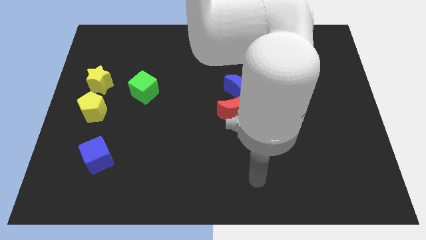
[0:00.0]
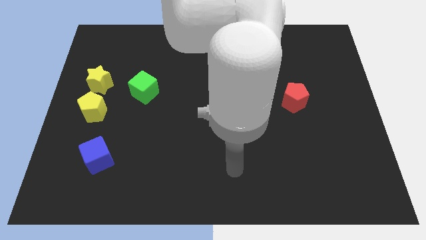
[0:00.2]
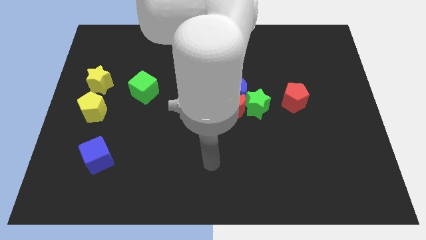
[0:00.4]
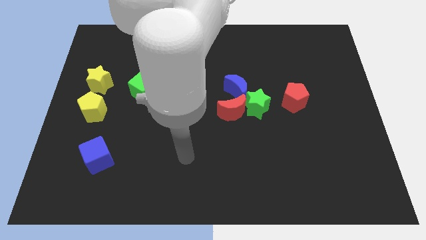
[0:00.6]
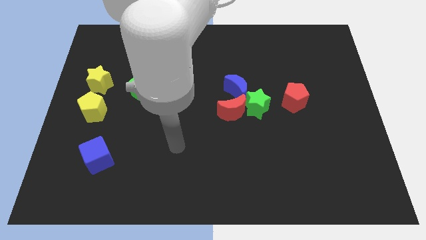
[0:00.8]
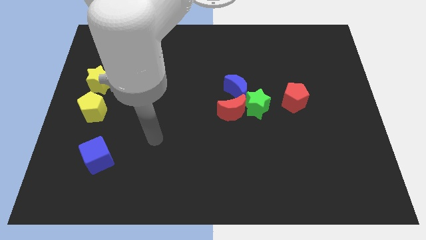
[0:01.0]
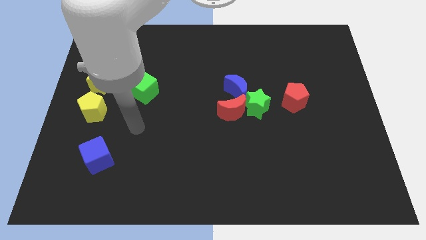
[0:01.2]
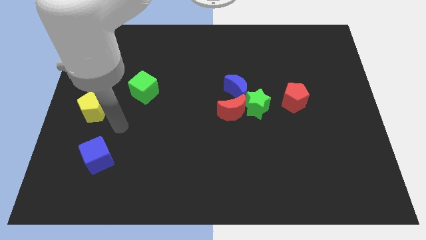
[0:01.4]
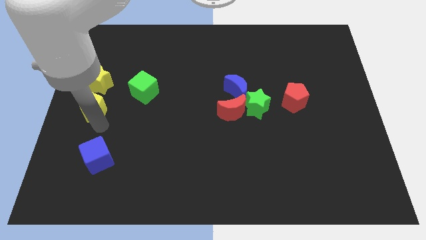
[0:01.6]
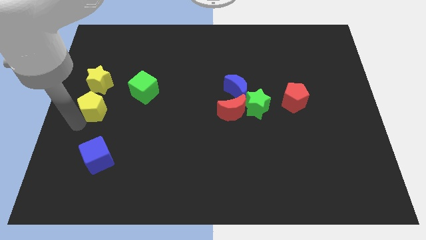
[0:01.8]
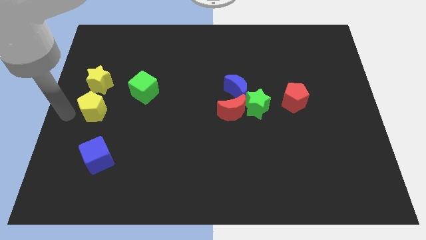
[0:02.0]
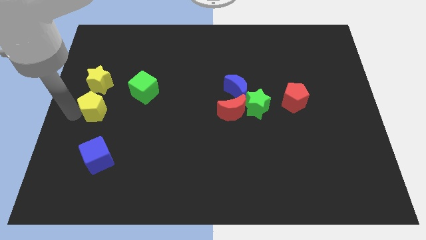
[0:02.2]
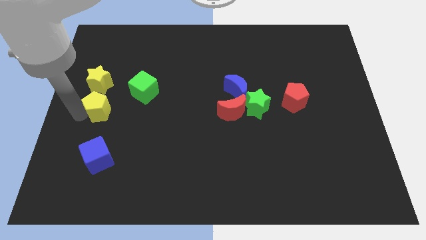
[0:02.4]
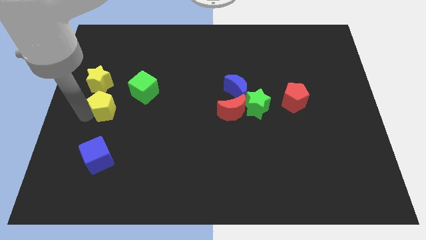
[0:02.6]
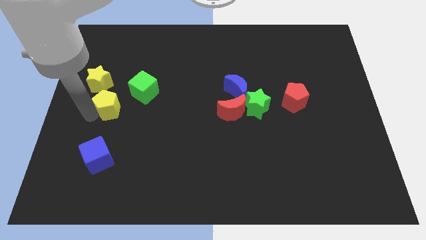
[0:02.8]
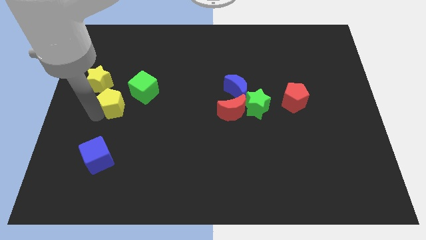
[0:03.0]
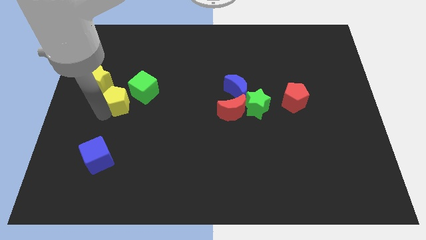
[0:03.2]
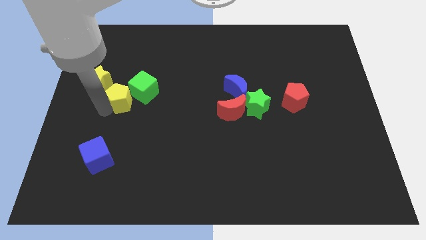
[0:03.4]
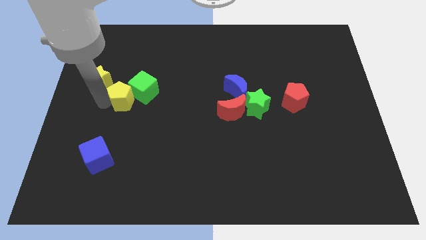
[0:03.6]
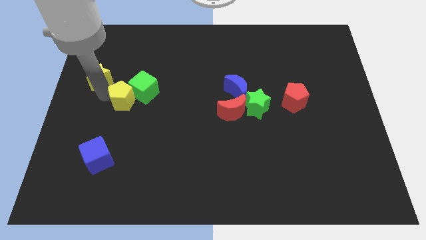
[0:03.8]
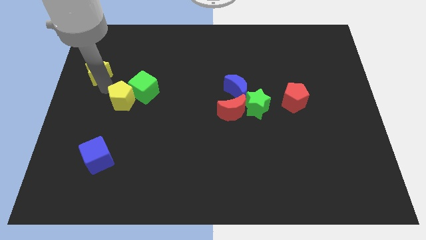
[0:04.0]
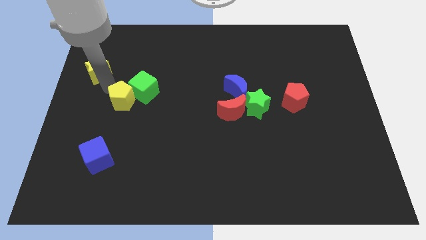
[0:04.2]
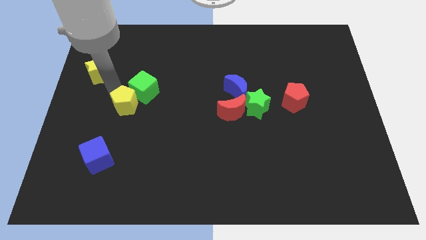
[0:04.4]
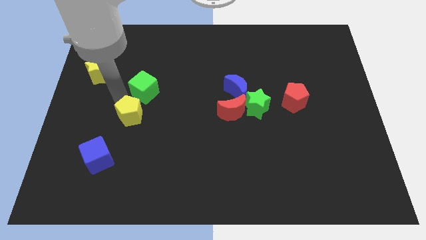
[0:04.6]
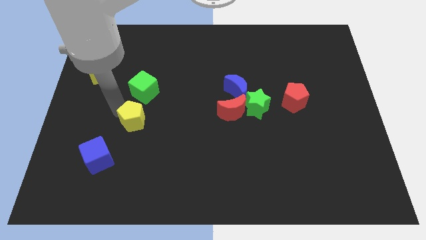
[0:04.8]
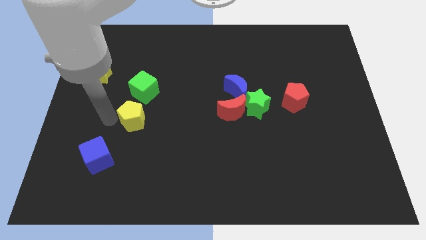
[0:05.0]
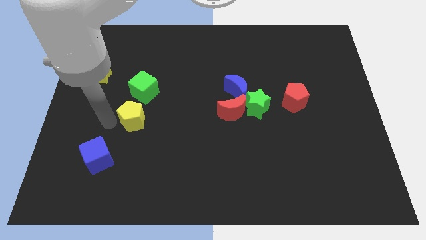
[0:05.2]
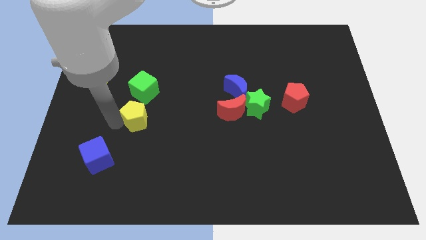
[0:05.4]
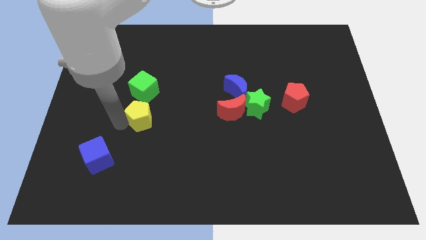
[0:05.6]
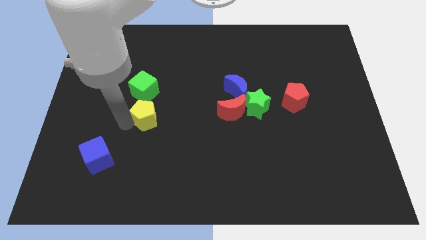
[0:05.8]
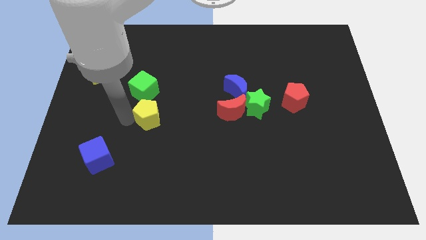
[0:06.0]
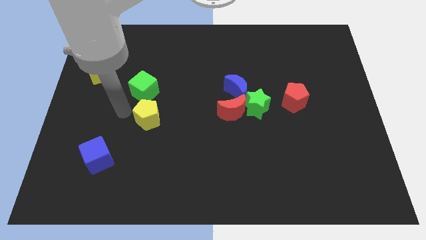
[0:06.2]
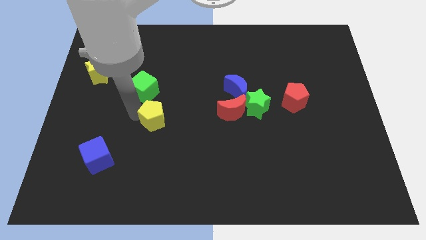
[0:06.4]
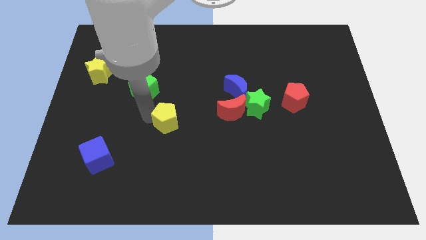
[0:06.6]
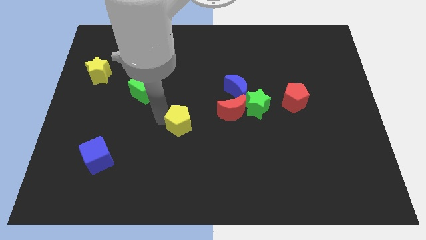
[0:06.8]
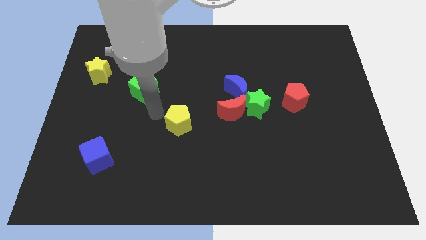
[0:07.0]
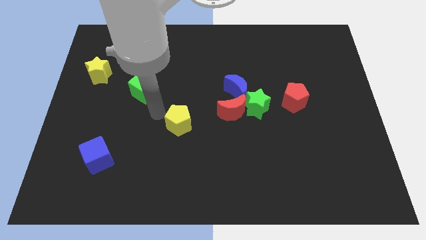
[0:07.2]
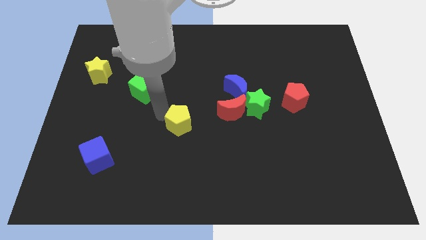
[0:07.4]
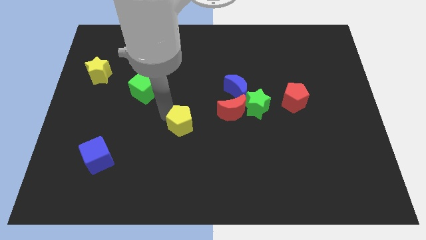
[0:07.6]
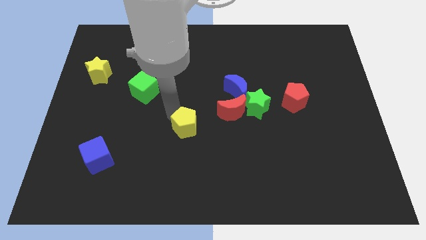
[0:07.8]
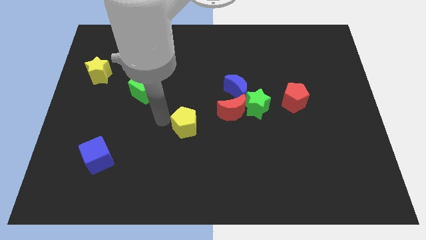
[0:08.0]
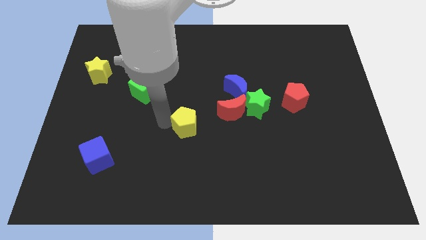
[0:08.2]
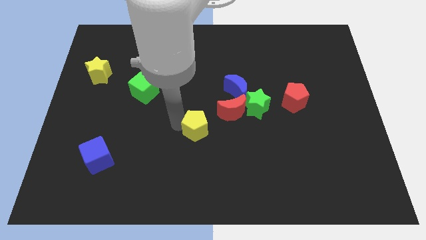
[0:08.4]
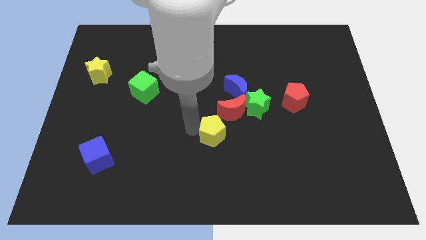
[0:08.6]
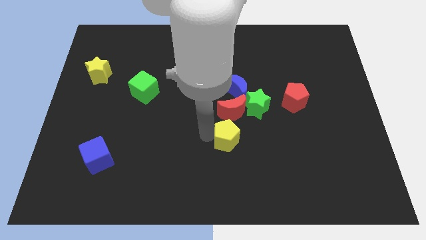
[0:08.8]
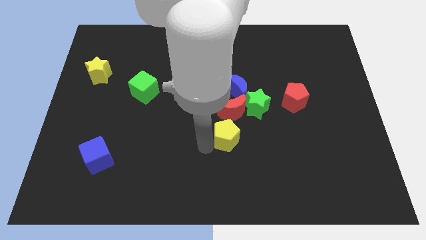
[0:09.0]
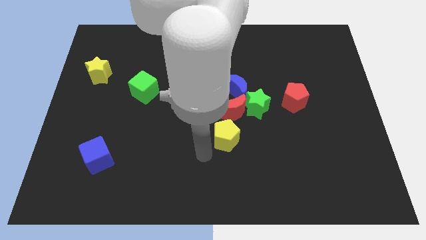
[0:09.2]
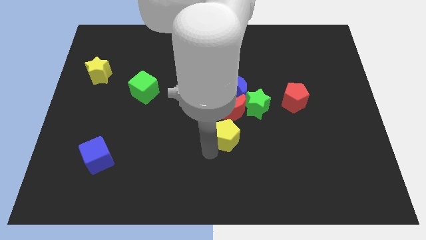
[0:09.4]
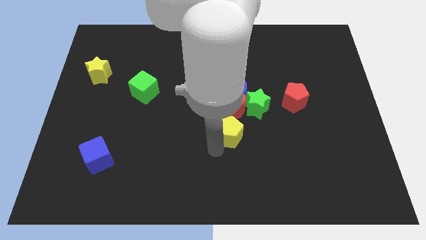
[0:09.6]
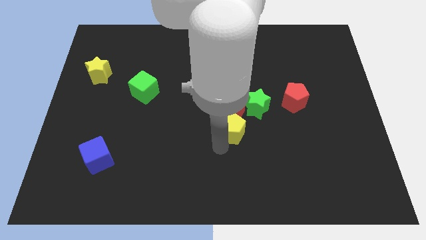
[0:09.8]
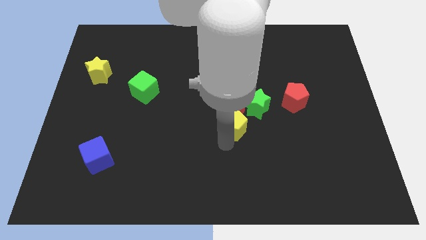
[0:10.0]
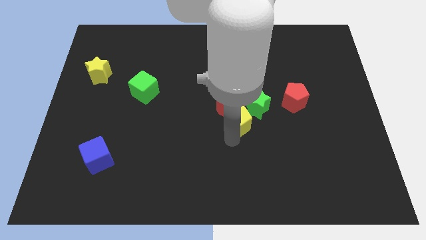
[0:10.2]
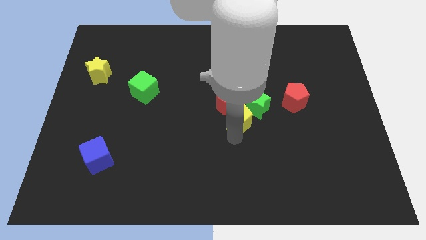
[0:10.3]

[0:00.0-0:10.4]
put the yellow pentagon close to the green star

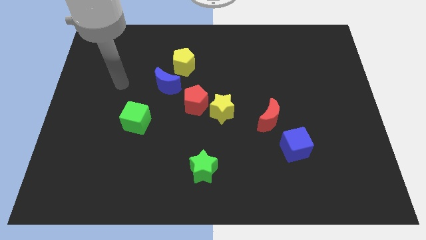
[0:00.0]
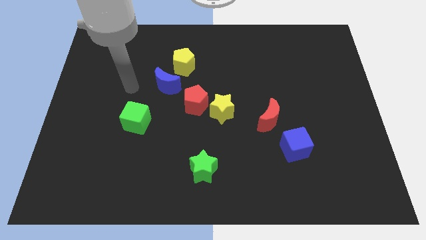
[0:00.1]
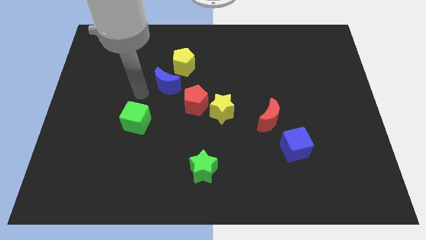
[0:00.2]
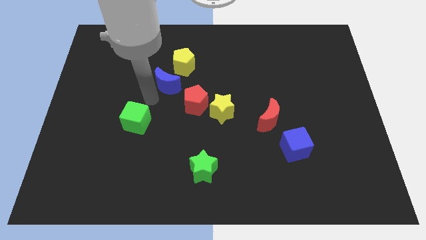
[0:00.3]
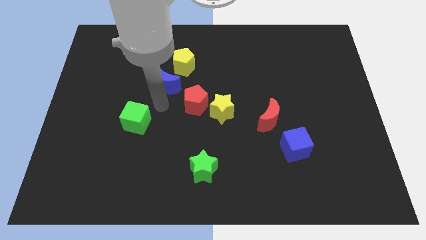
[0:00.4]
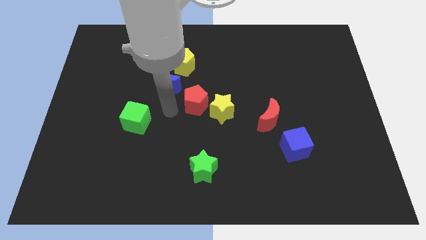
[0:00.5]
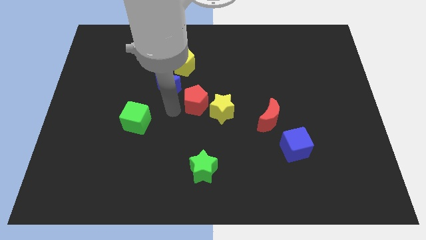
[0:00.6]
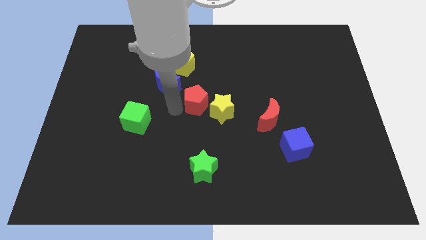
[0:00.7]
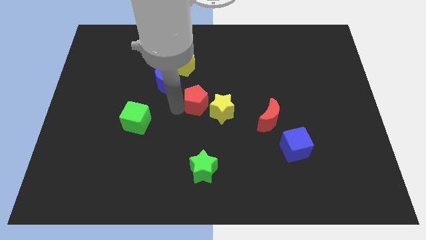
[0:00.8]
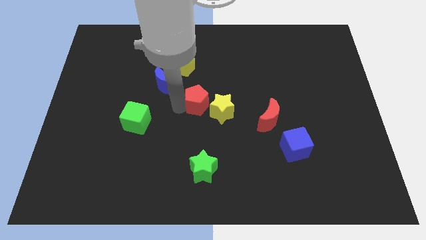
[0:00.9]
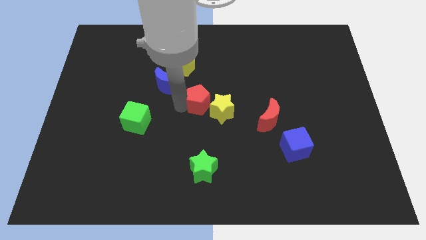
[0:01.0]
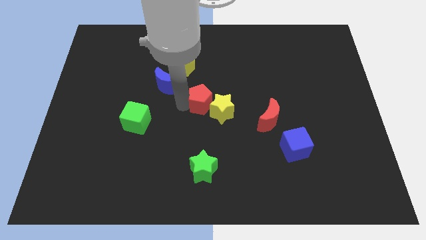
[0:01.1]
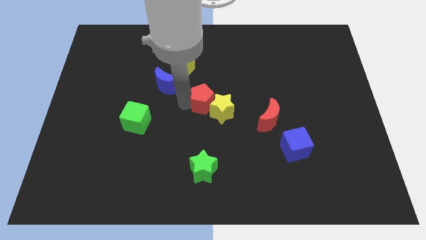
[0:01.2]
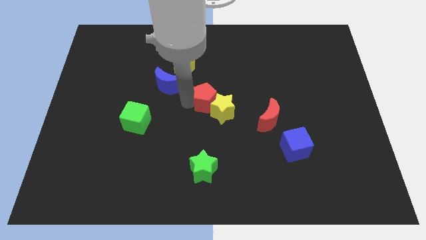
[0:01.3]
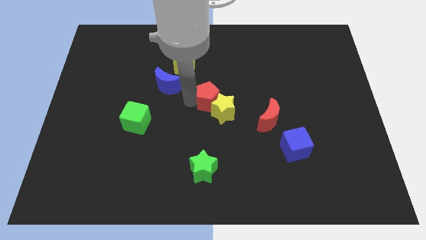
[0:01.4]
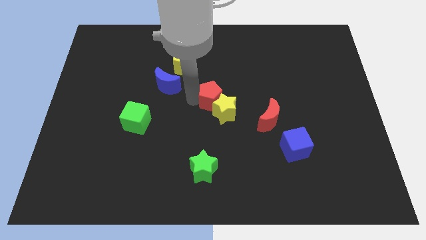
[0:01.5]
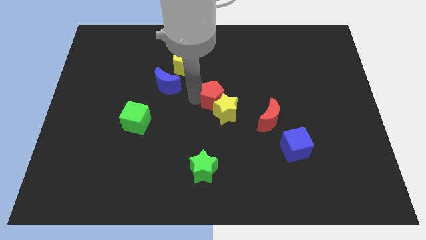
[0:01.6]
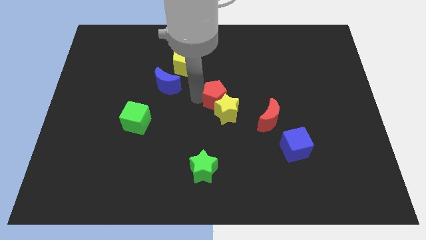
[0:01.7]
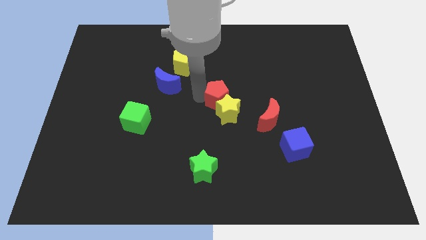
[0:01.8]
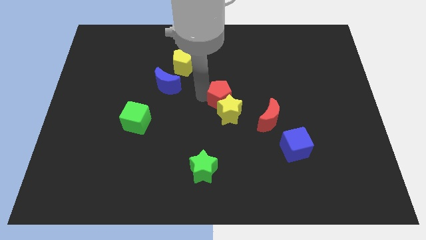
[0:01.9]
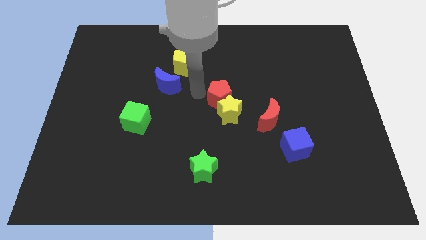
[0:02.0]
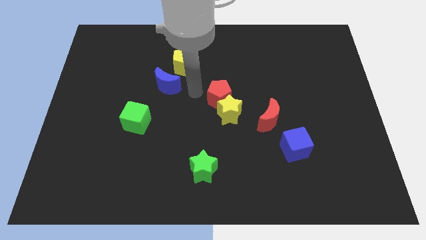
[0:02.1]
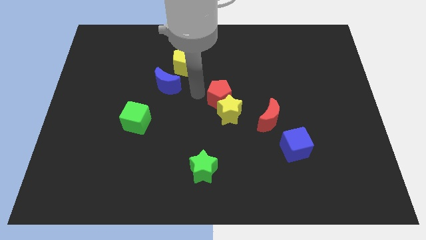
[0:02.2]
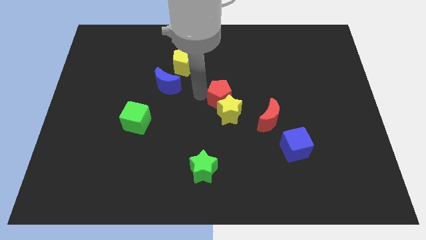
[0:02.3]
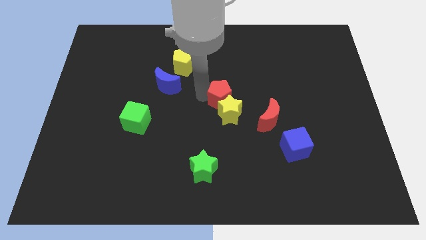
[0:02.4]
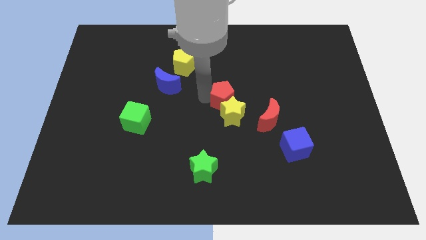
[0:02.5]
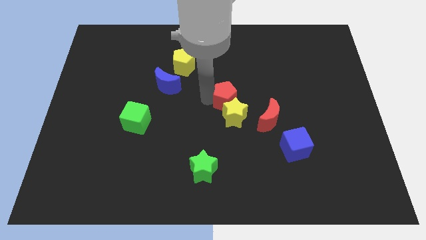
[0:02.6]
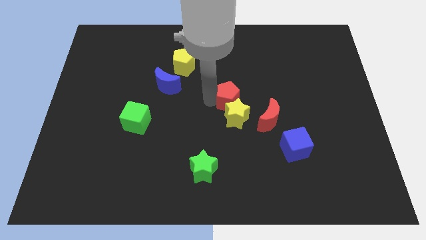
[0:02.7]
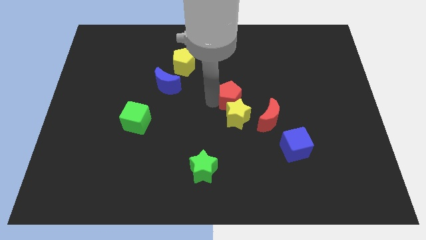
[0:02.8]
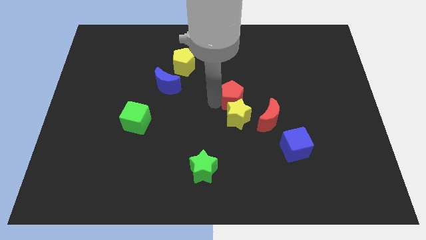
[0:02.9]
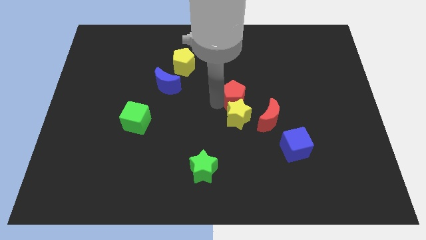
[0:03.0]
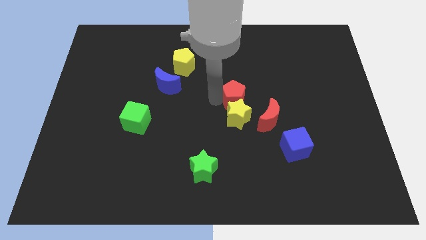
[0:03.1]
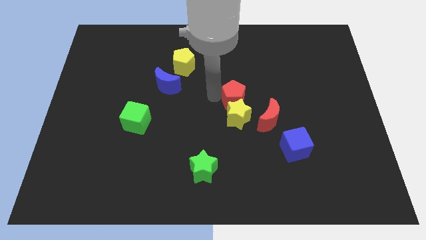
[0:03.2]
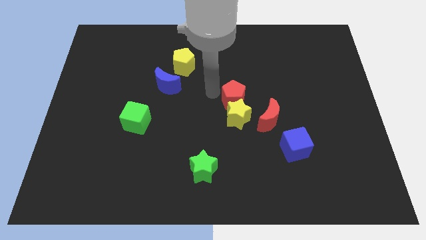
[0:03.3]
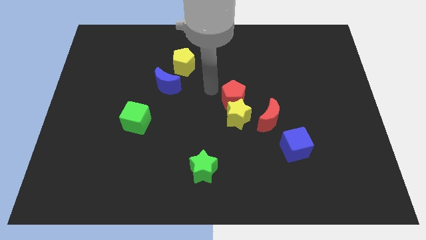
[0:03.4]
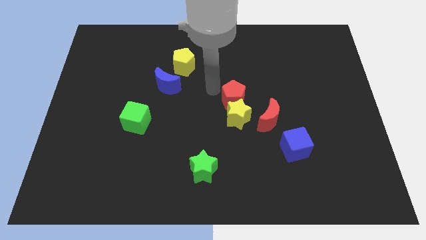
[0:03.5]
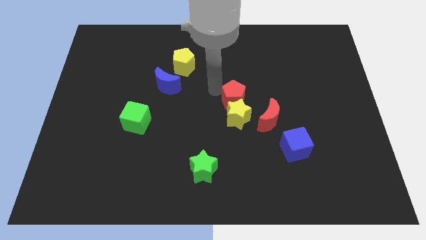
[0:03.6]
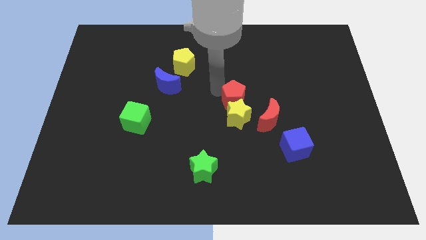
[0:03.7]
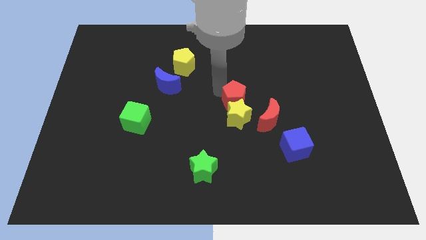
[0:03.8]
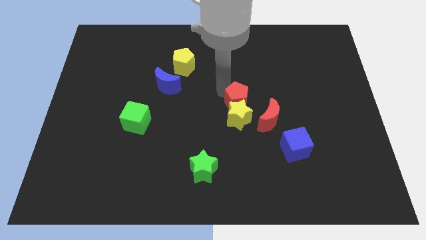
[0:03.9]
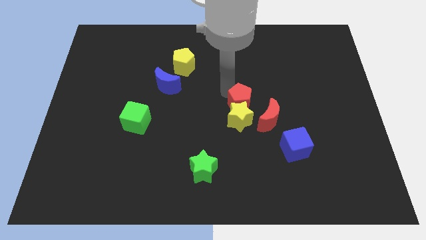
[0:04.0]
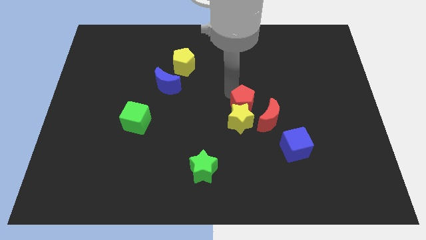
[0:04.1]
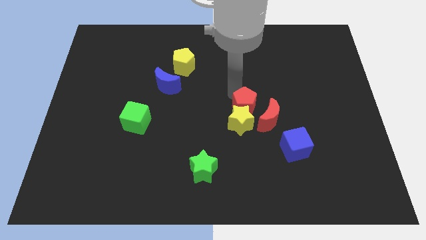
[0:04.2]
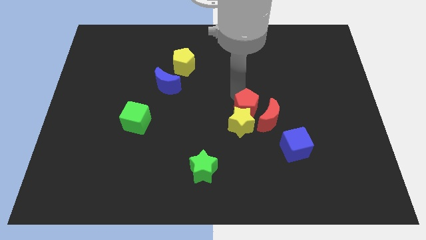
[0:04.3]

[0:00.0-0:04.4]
move the red pentagon towards the red moon
